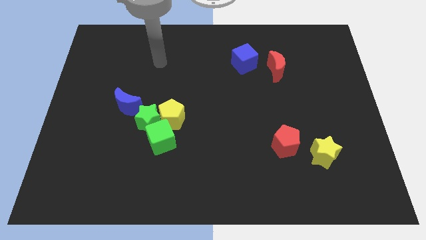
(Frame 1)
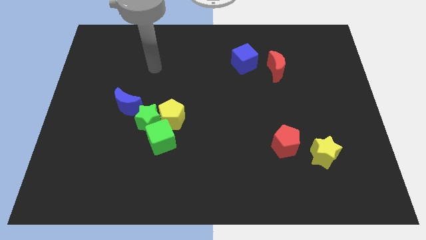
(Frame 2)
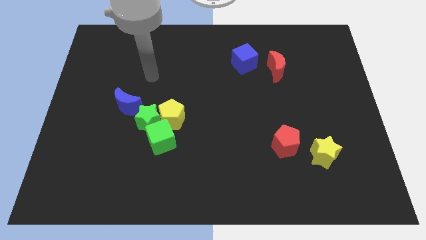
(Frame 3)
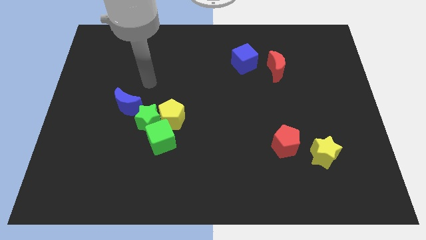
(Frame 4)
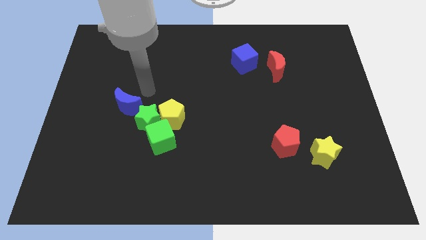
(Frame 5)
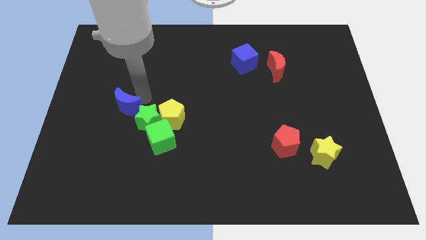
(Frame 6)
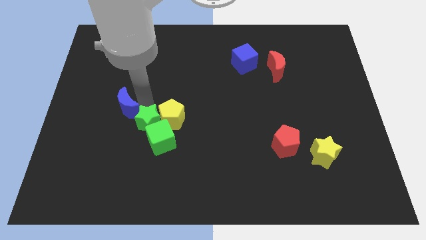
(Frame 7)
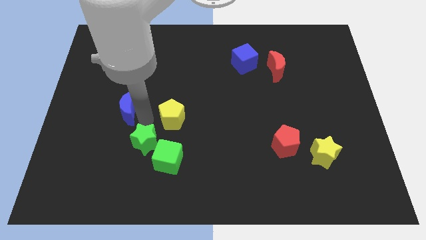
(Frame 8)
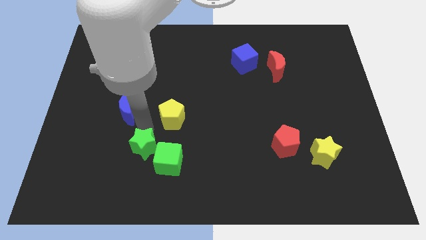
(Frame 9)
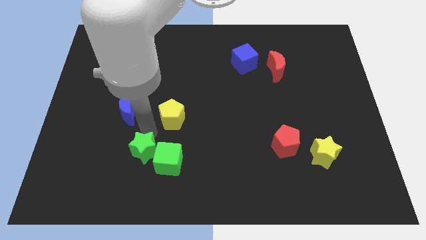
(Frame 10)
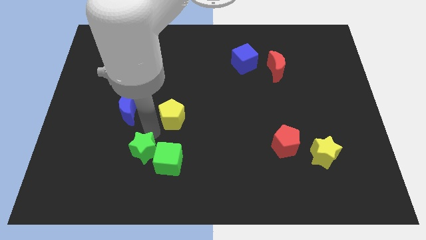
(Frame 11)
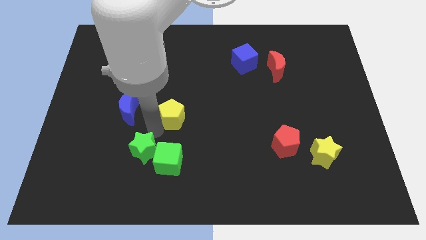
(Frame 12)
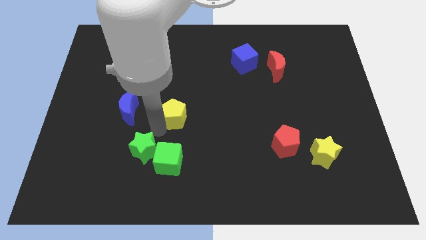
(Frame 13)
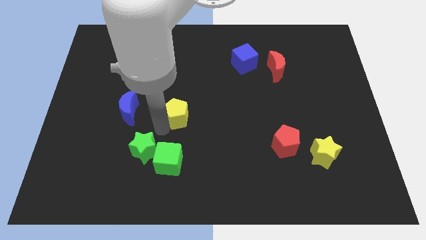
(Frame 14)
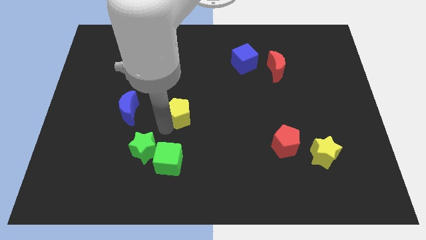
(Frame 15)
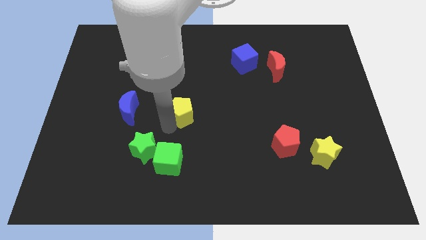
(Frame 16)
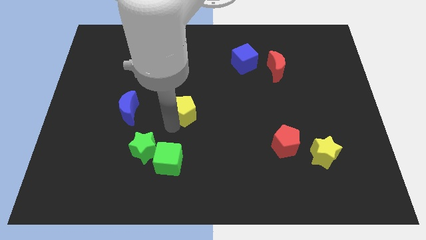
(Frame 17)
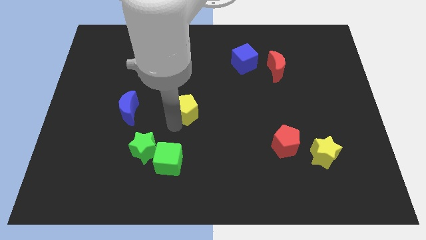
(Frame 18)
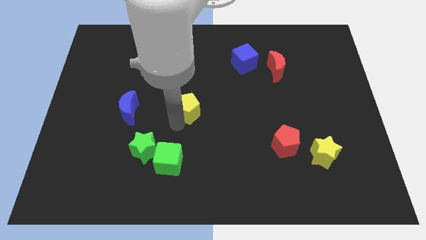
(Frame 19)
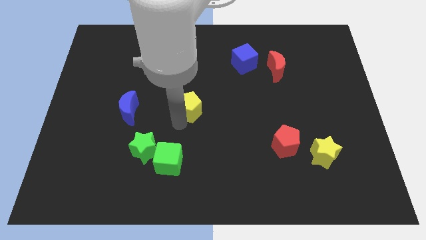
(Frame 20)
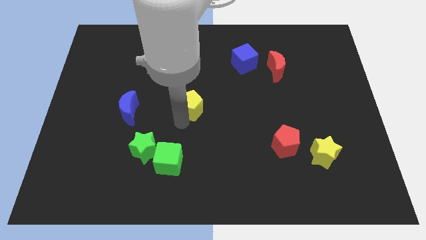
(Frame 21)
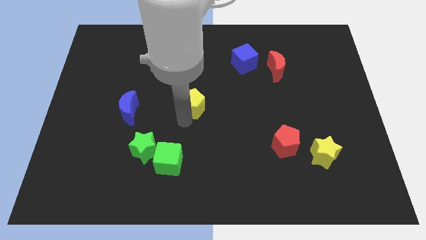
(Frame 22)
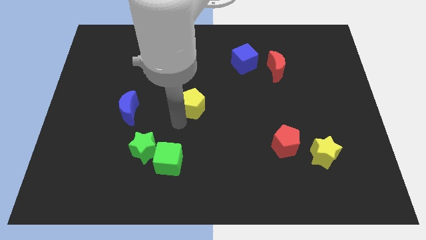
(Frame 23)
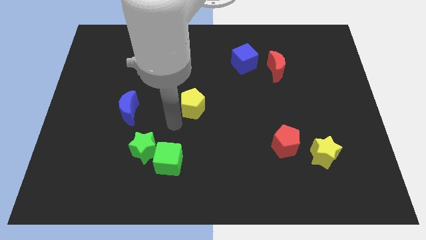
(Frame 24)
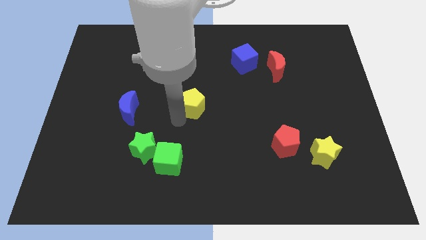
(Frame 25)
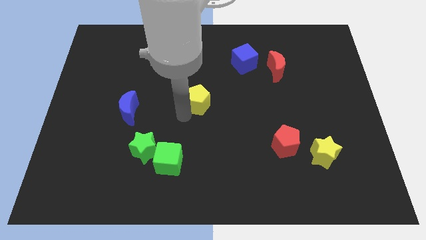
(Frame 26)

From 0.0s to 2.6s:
slightly push the yellow pentagon upwards and to the right

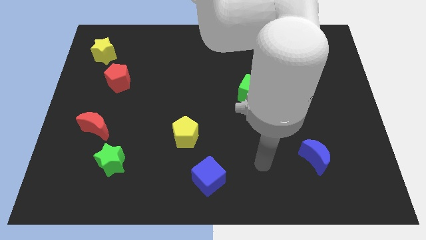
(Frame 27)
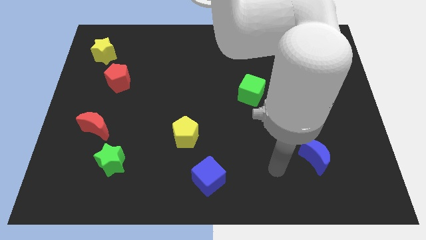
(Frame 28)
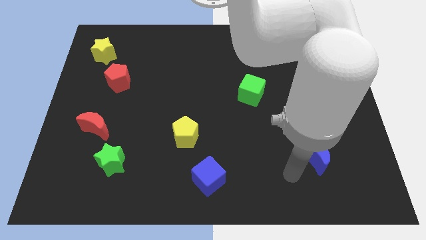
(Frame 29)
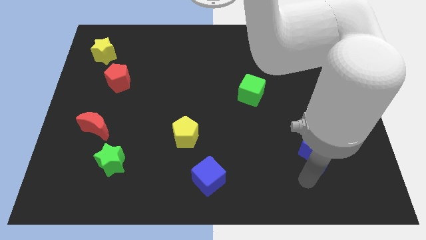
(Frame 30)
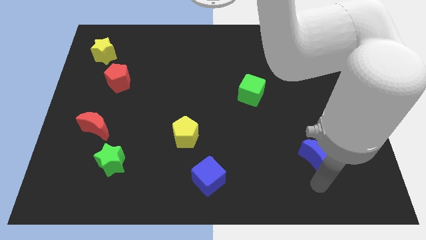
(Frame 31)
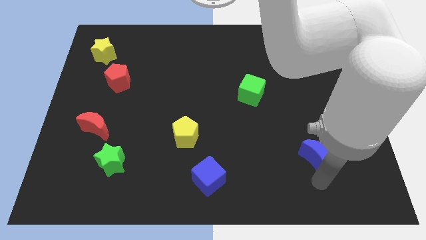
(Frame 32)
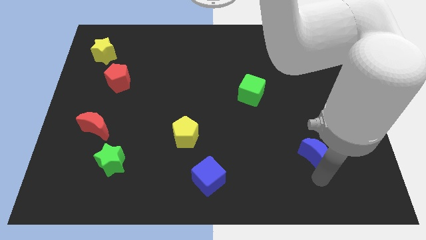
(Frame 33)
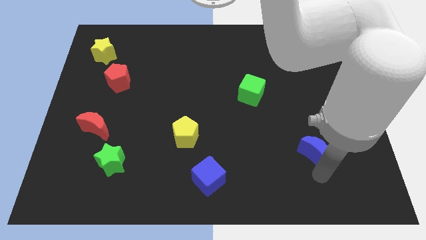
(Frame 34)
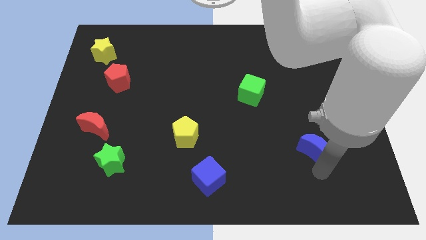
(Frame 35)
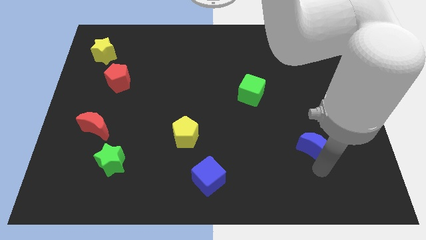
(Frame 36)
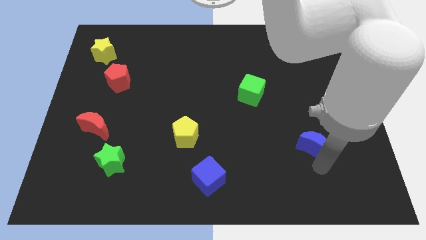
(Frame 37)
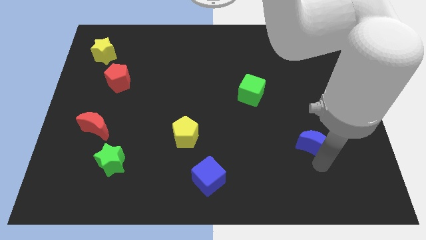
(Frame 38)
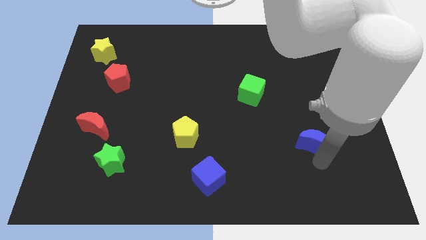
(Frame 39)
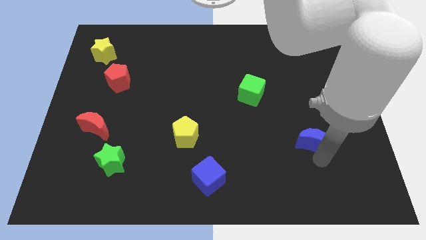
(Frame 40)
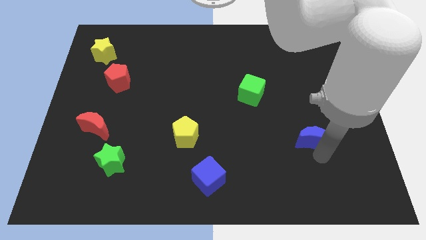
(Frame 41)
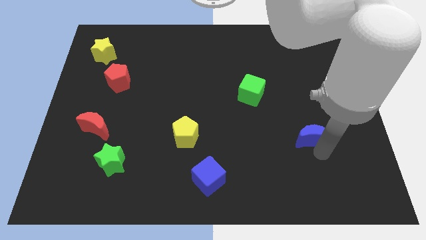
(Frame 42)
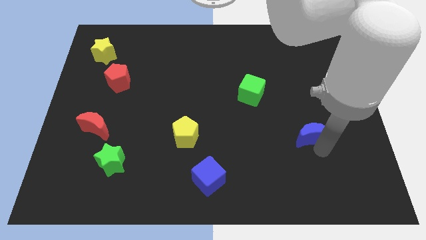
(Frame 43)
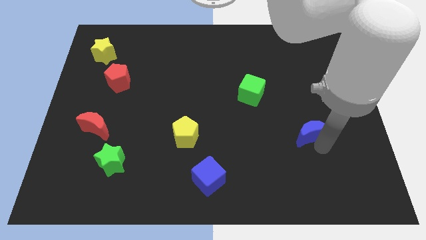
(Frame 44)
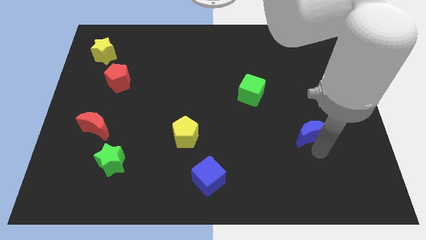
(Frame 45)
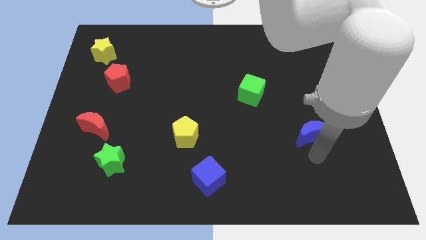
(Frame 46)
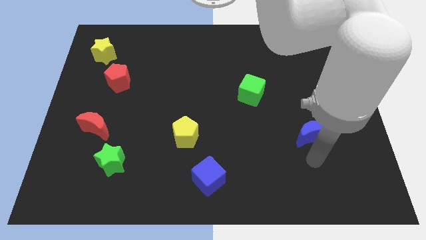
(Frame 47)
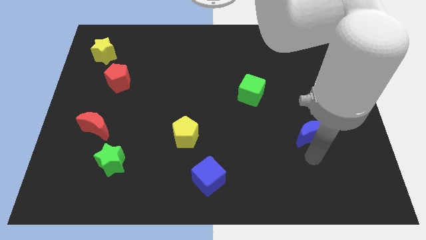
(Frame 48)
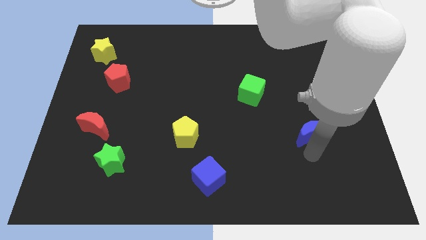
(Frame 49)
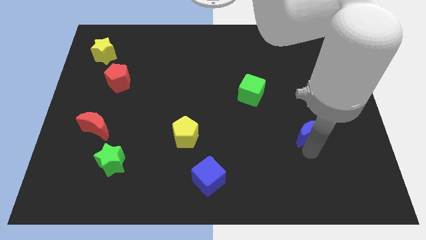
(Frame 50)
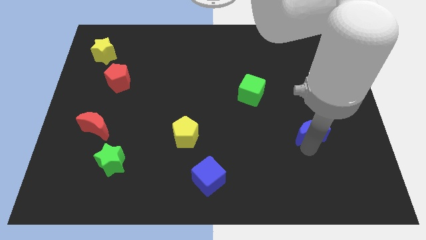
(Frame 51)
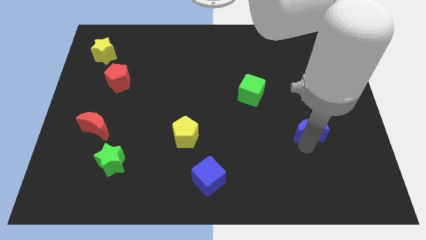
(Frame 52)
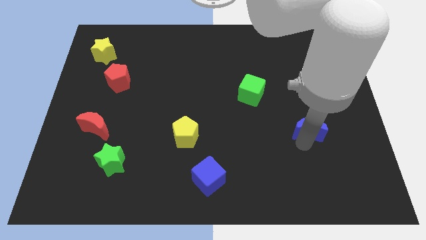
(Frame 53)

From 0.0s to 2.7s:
move the blue moon upwards a bit

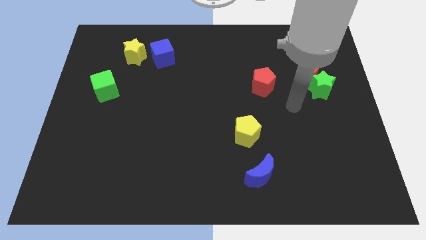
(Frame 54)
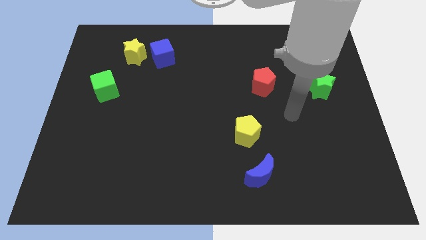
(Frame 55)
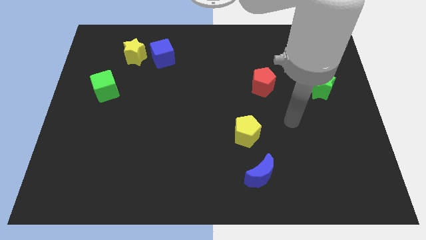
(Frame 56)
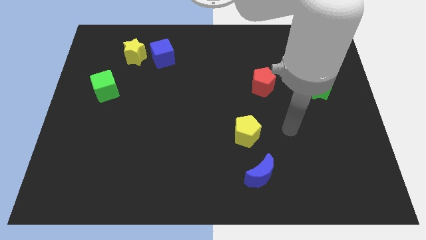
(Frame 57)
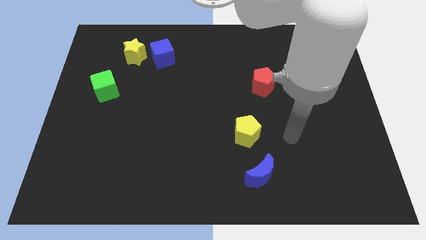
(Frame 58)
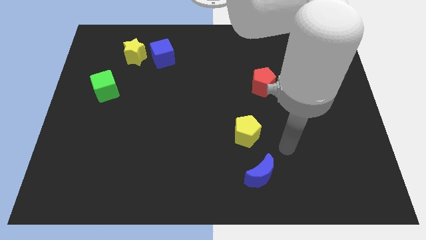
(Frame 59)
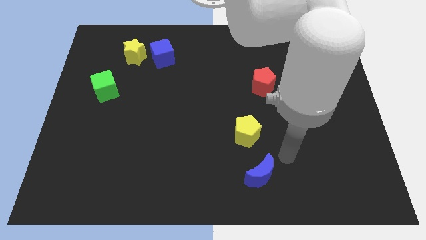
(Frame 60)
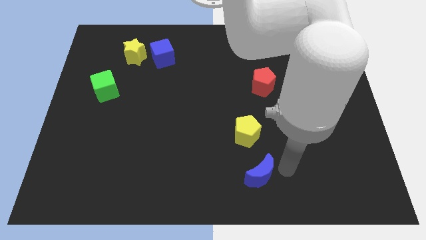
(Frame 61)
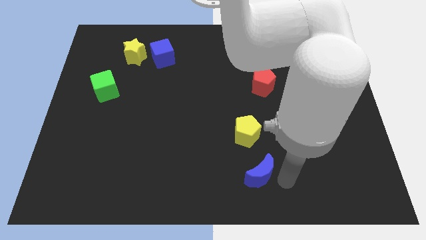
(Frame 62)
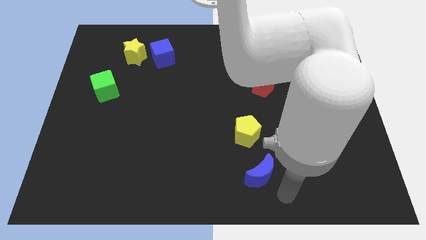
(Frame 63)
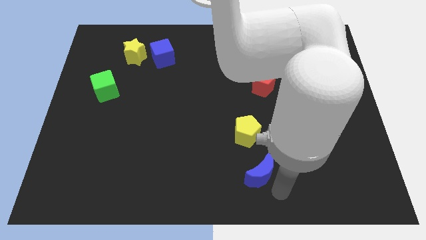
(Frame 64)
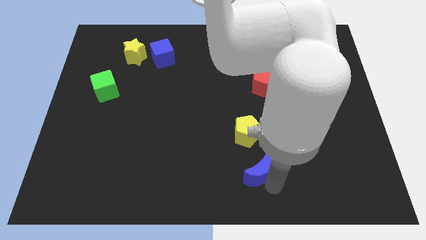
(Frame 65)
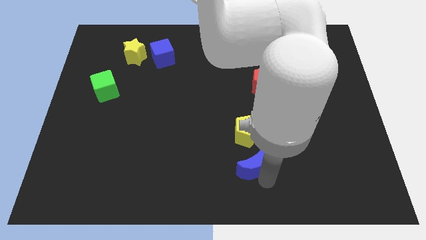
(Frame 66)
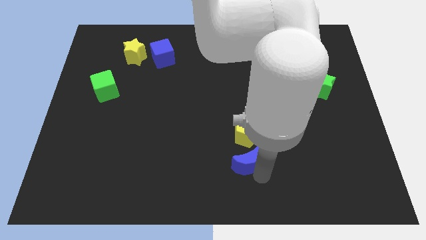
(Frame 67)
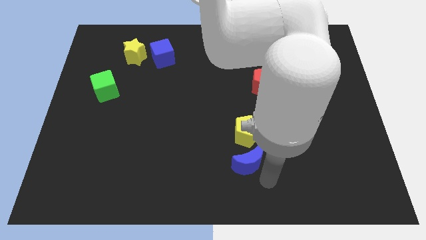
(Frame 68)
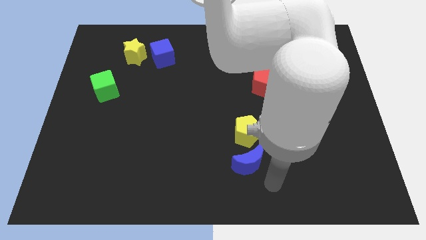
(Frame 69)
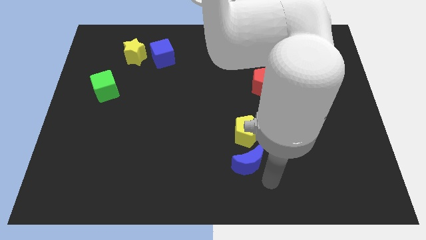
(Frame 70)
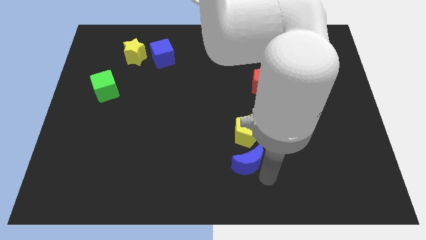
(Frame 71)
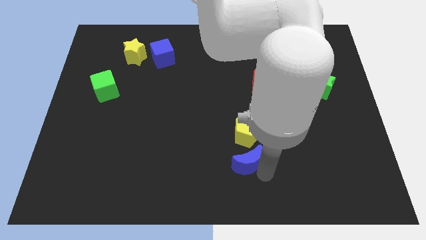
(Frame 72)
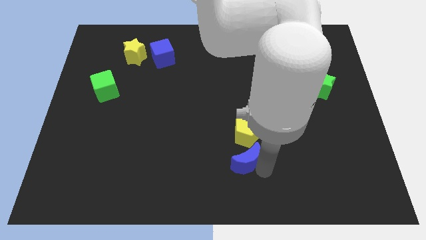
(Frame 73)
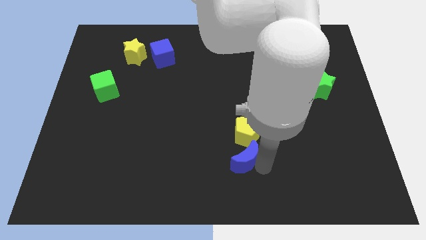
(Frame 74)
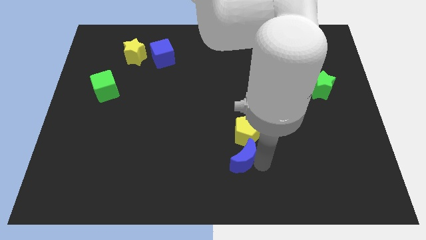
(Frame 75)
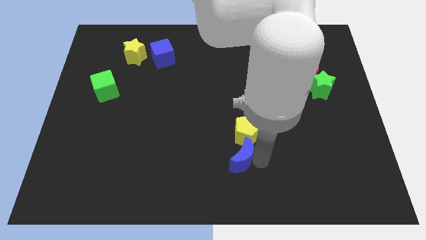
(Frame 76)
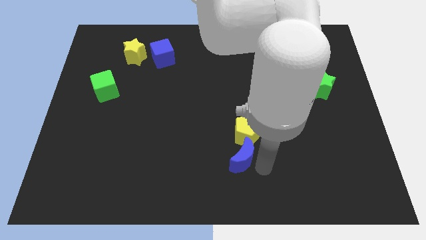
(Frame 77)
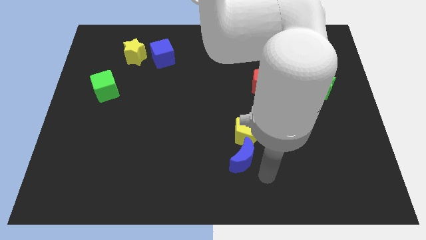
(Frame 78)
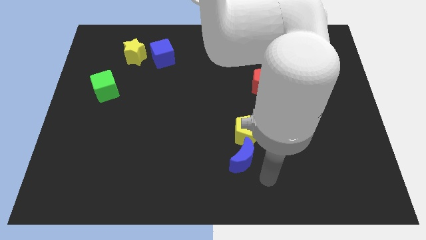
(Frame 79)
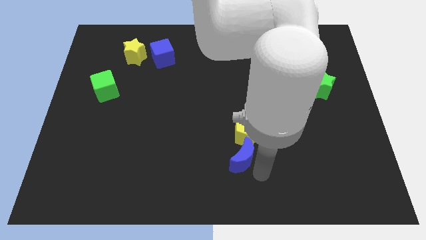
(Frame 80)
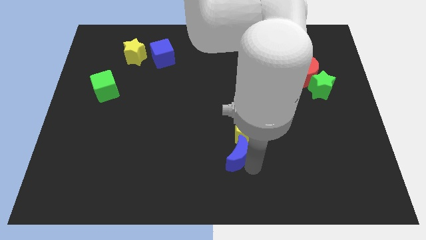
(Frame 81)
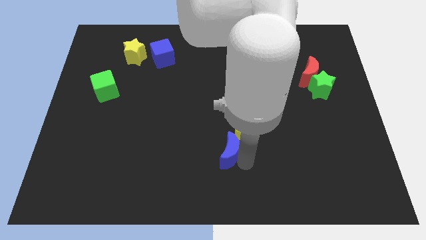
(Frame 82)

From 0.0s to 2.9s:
push the blue moon a bit up and to the left
